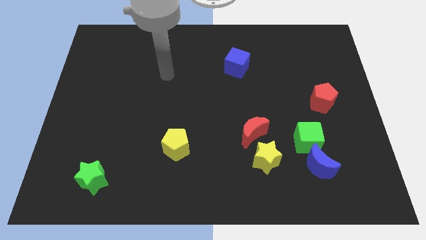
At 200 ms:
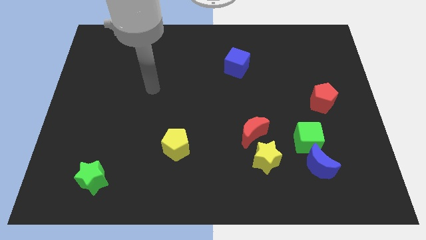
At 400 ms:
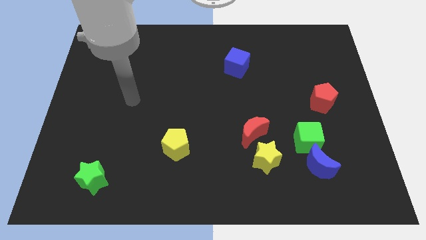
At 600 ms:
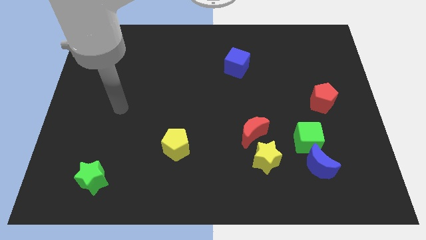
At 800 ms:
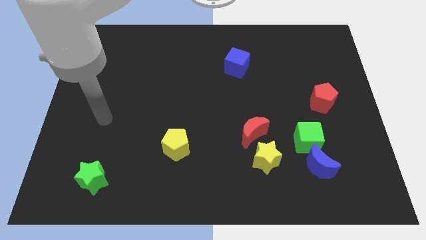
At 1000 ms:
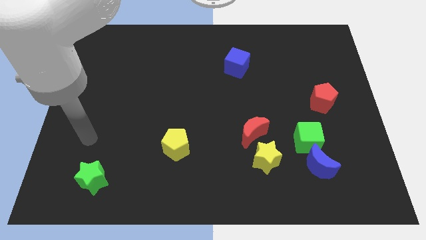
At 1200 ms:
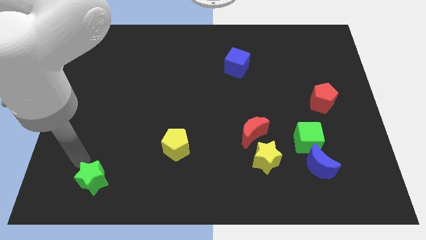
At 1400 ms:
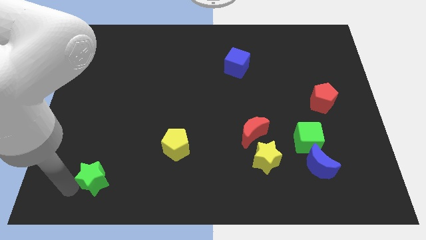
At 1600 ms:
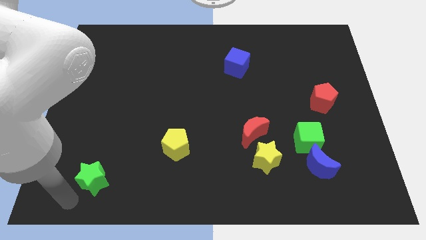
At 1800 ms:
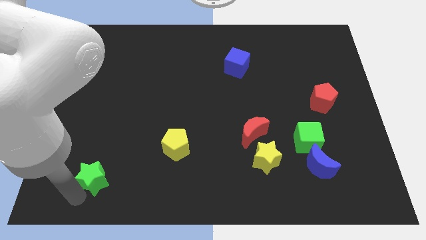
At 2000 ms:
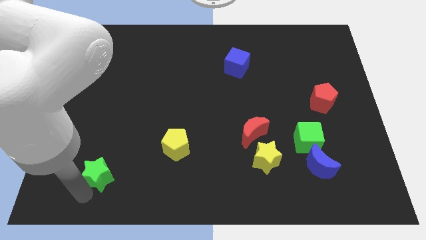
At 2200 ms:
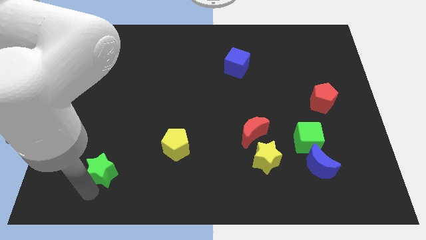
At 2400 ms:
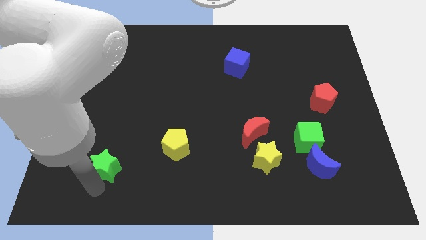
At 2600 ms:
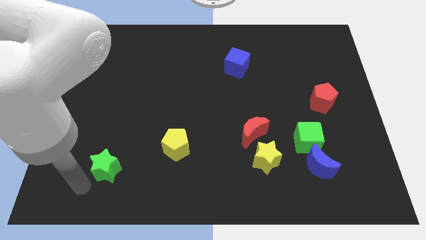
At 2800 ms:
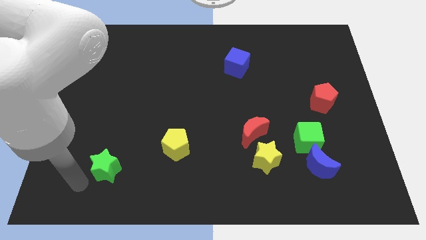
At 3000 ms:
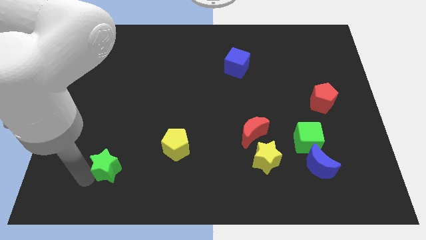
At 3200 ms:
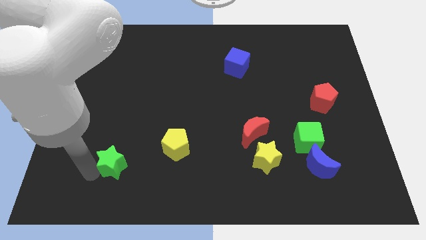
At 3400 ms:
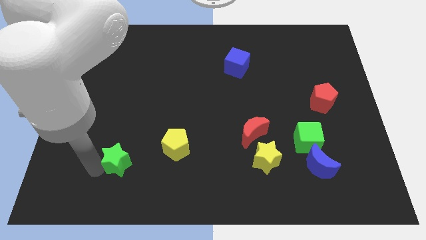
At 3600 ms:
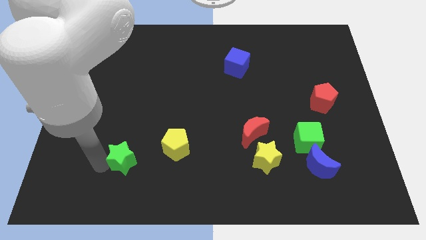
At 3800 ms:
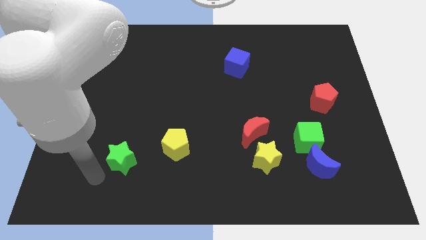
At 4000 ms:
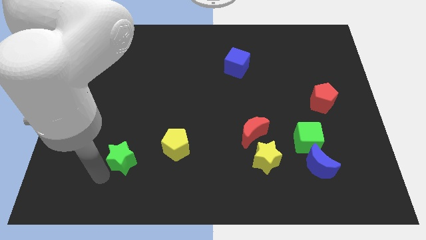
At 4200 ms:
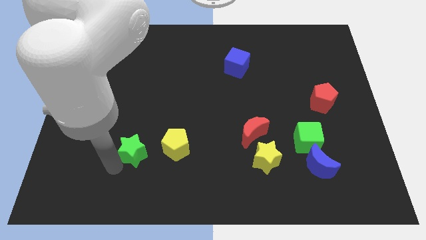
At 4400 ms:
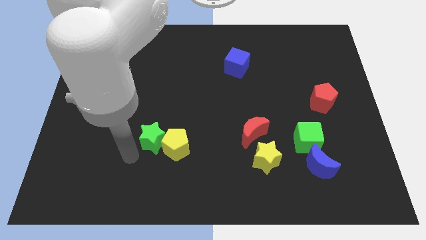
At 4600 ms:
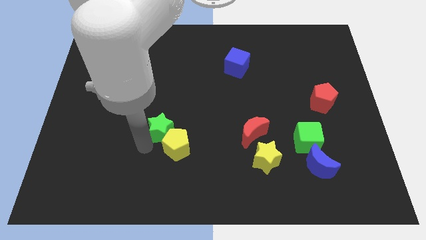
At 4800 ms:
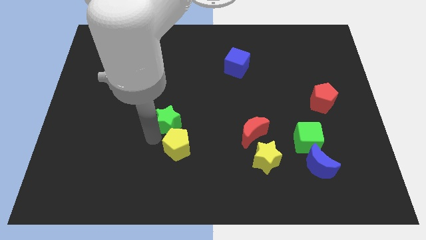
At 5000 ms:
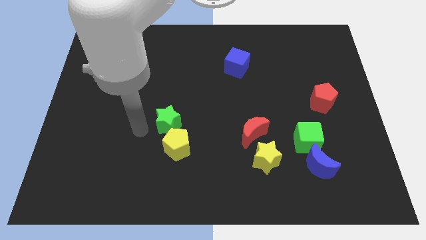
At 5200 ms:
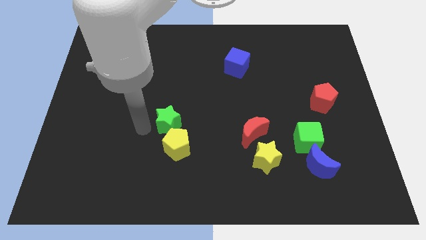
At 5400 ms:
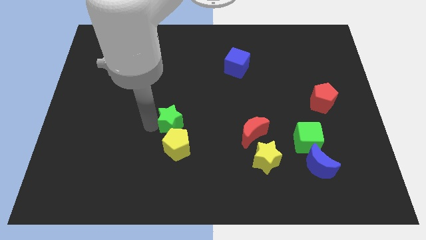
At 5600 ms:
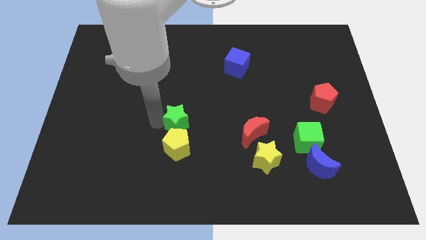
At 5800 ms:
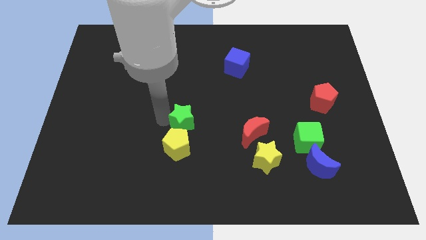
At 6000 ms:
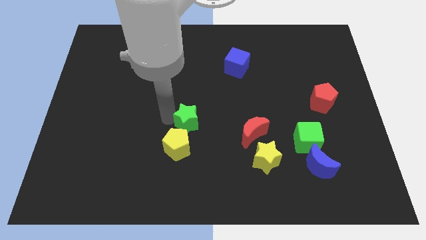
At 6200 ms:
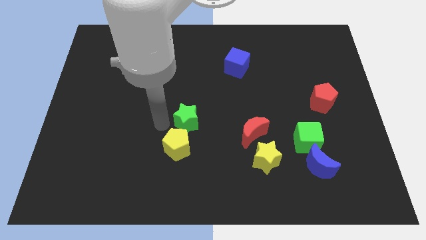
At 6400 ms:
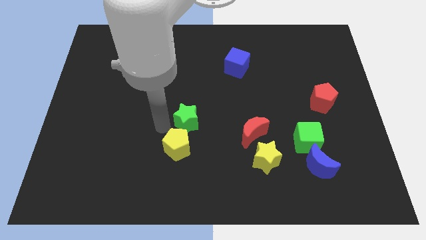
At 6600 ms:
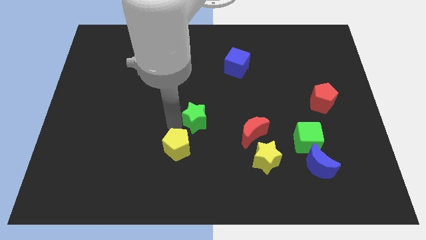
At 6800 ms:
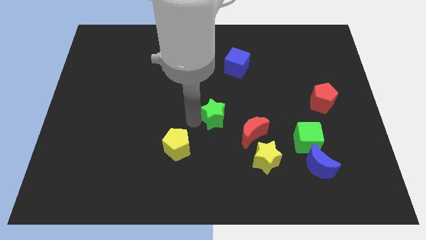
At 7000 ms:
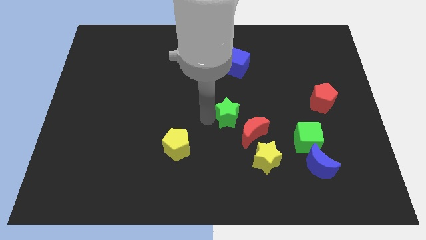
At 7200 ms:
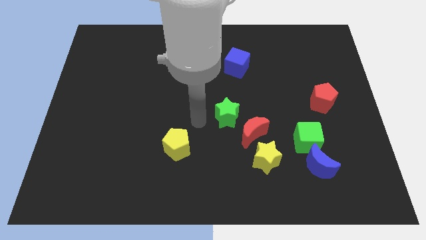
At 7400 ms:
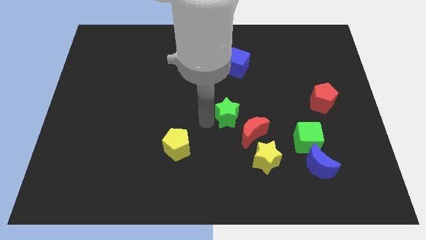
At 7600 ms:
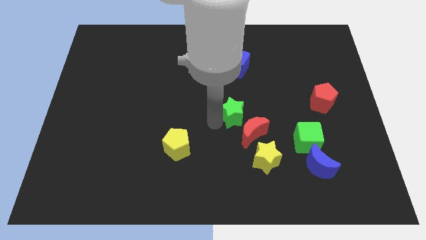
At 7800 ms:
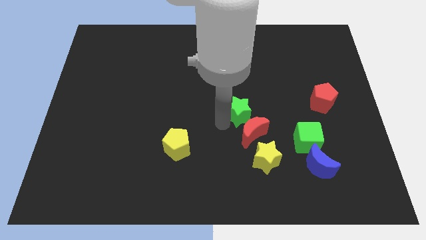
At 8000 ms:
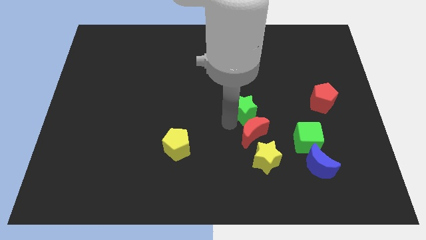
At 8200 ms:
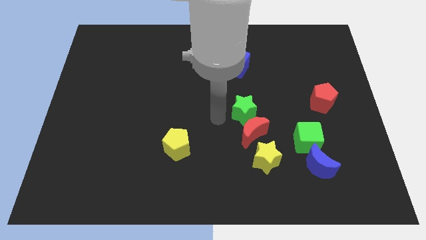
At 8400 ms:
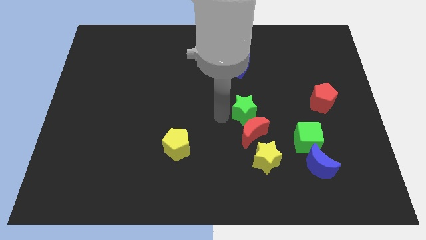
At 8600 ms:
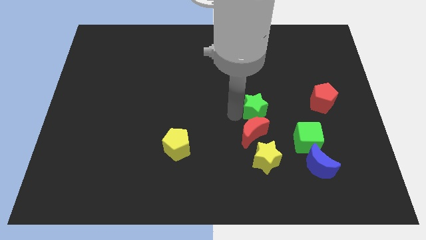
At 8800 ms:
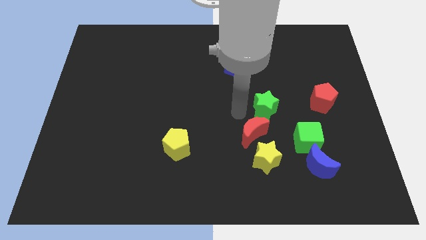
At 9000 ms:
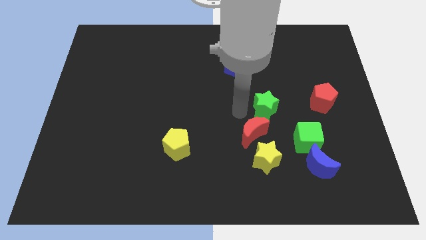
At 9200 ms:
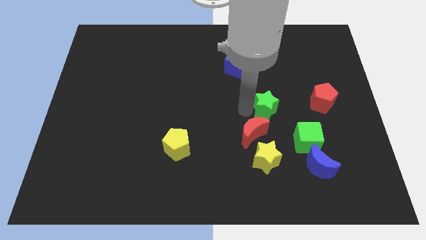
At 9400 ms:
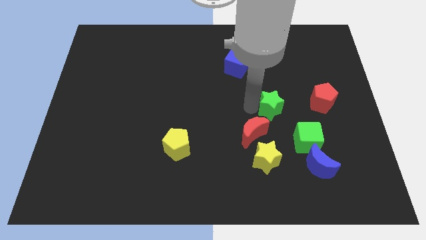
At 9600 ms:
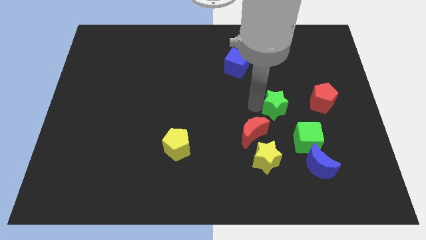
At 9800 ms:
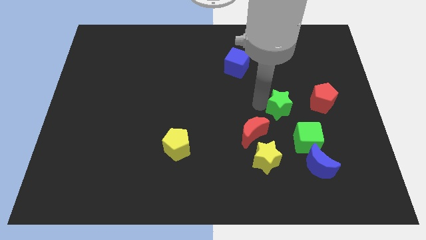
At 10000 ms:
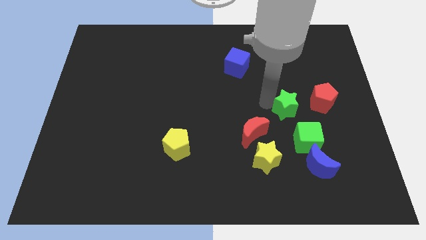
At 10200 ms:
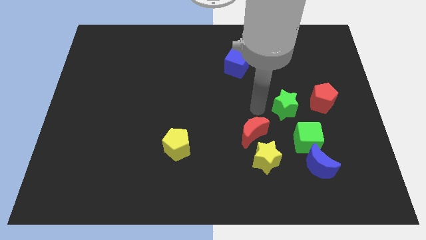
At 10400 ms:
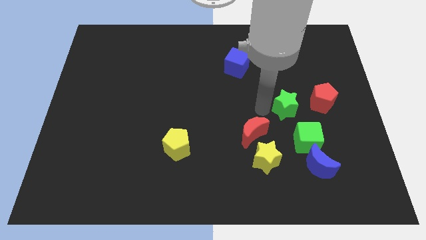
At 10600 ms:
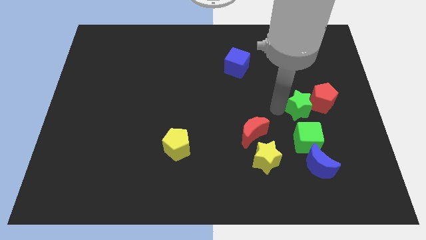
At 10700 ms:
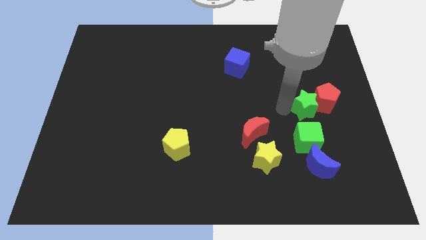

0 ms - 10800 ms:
move the green star next to the red pentagon

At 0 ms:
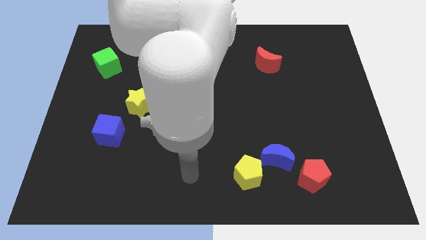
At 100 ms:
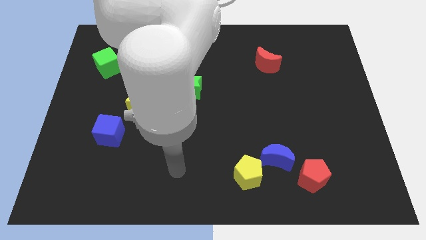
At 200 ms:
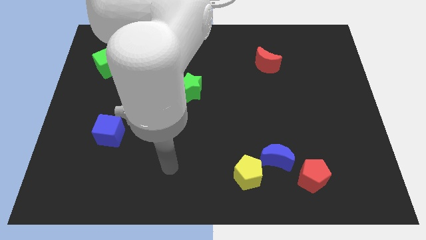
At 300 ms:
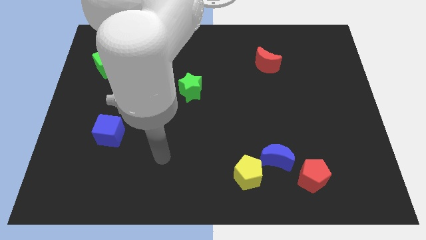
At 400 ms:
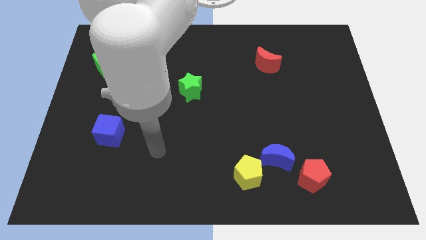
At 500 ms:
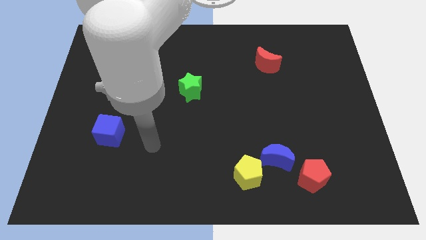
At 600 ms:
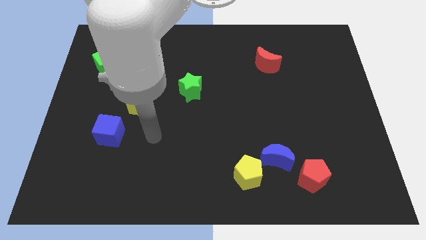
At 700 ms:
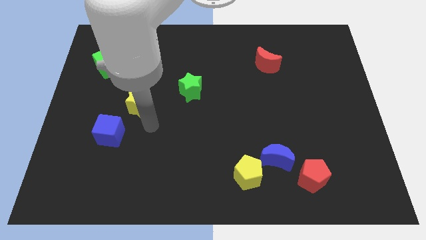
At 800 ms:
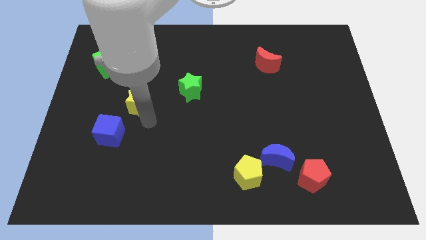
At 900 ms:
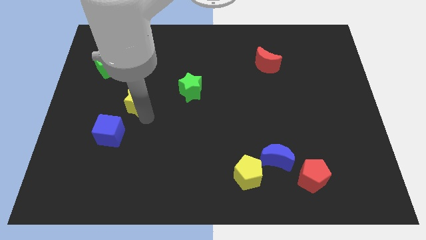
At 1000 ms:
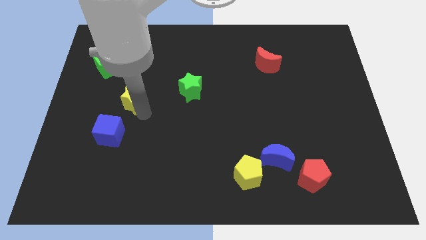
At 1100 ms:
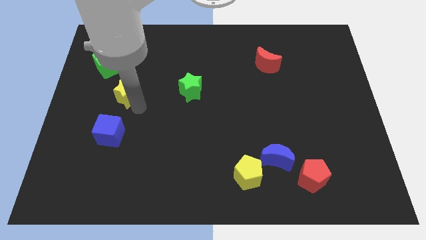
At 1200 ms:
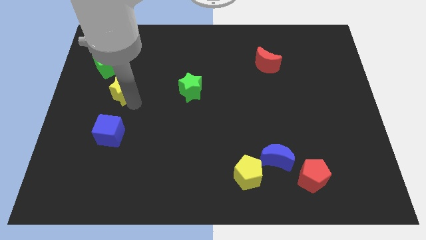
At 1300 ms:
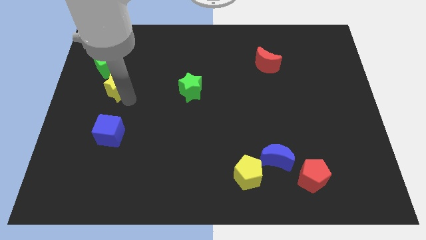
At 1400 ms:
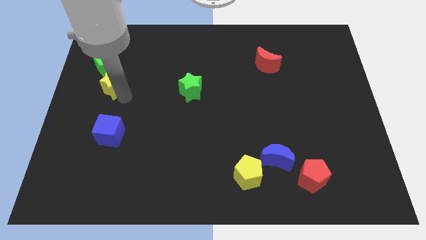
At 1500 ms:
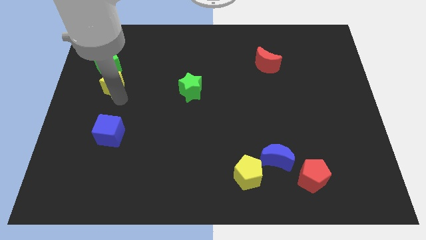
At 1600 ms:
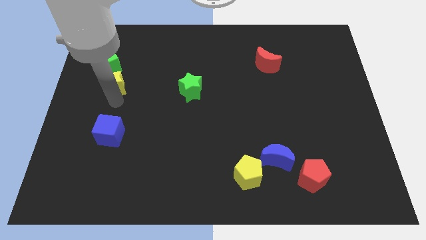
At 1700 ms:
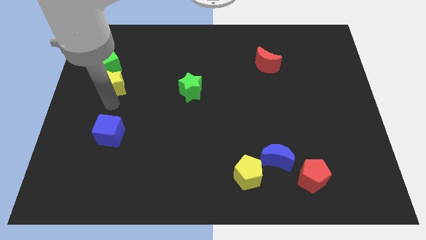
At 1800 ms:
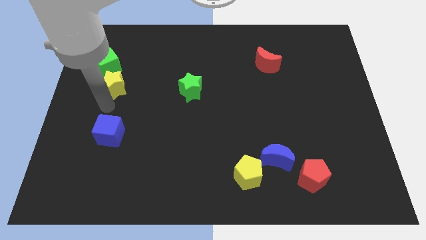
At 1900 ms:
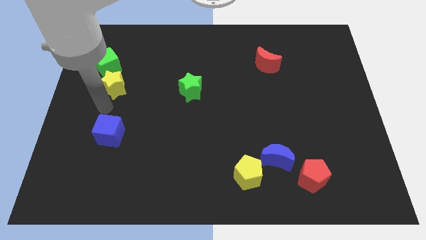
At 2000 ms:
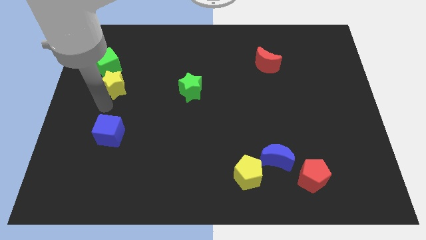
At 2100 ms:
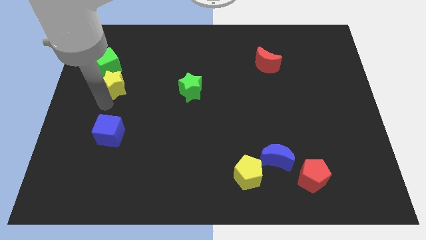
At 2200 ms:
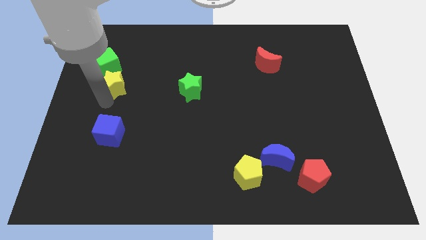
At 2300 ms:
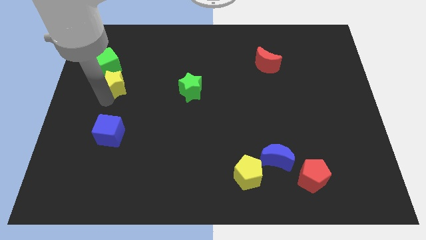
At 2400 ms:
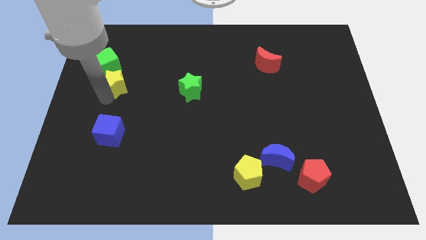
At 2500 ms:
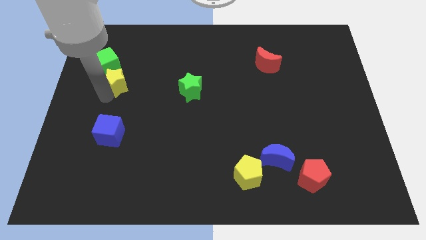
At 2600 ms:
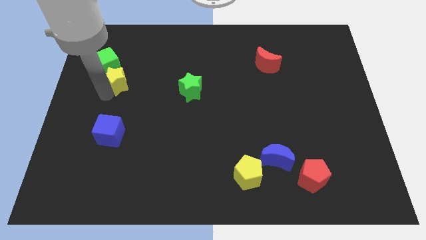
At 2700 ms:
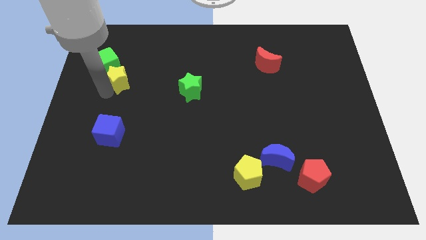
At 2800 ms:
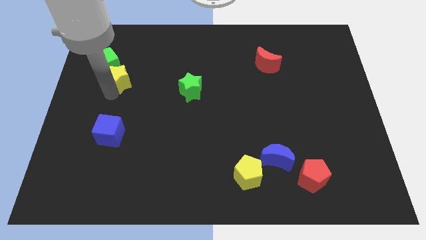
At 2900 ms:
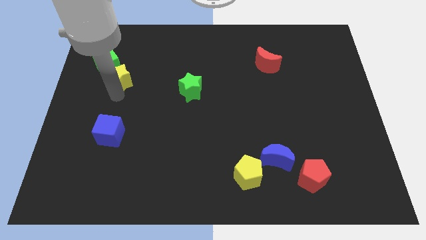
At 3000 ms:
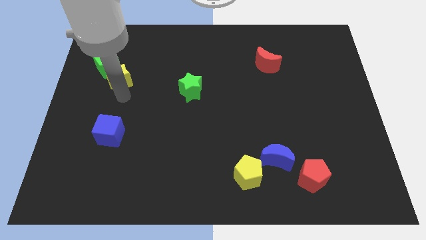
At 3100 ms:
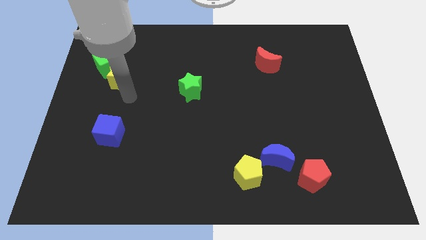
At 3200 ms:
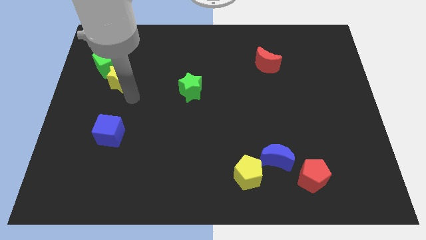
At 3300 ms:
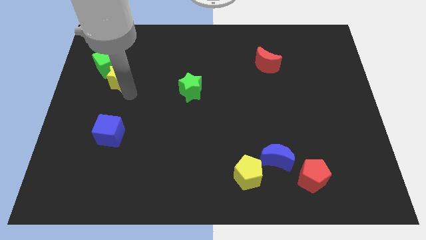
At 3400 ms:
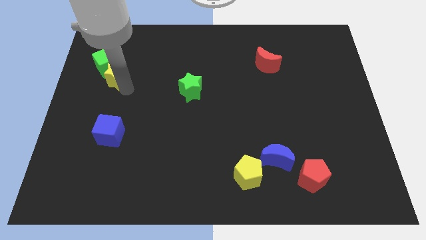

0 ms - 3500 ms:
move the yellow star close to the green cube

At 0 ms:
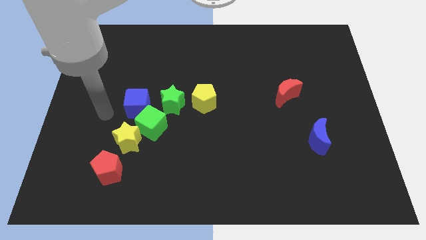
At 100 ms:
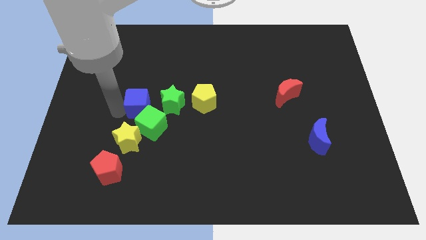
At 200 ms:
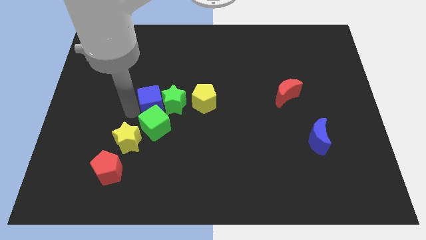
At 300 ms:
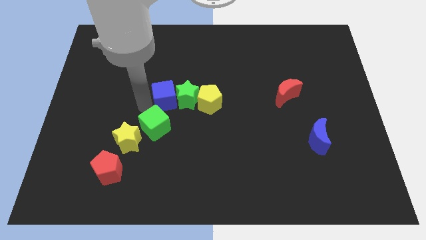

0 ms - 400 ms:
move the green star to the yellow pentagon
